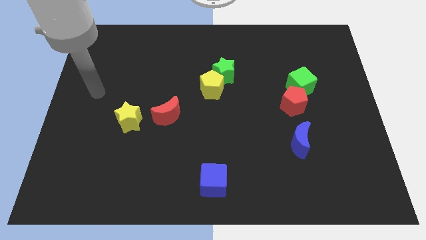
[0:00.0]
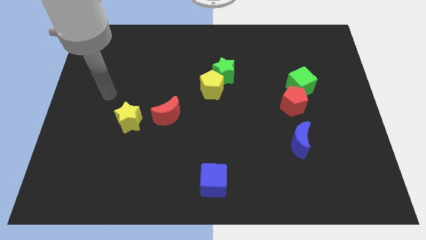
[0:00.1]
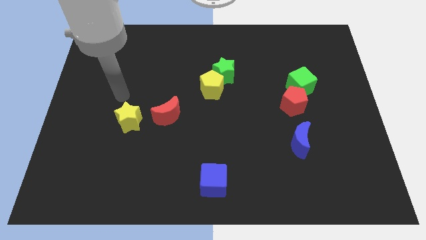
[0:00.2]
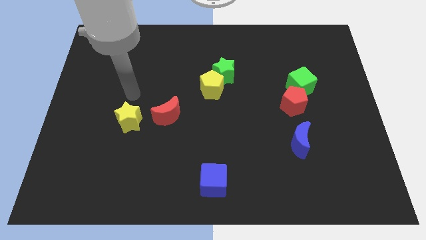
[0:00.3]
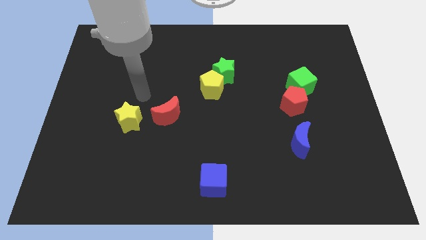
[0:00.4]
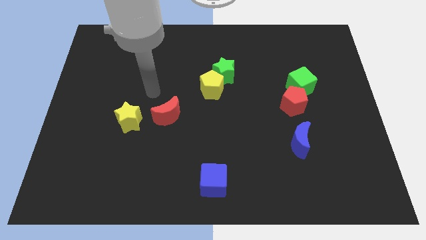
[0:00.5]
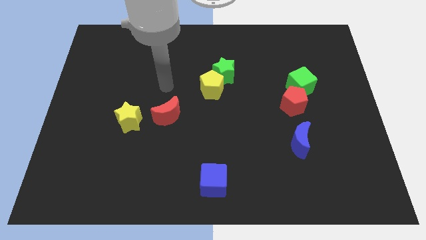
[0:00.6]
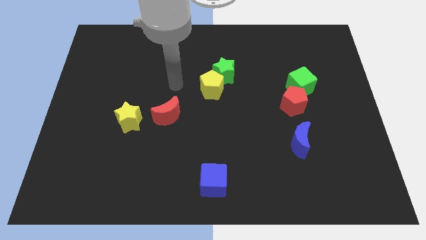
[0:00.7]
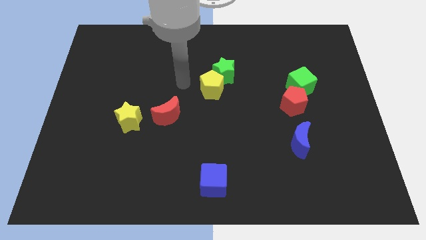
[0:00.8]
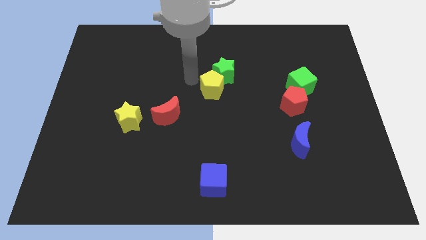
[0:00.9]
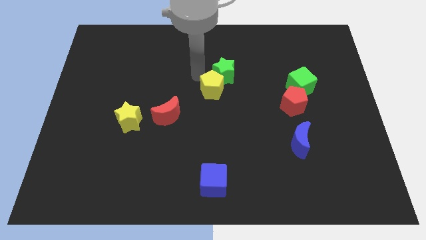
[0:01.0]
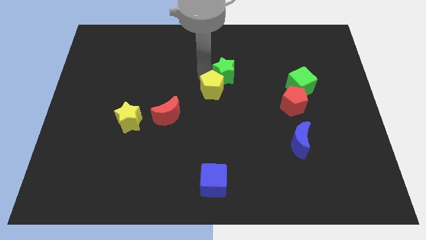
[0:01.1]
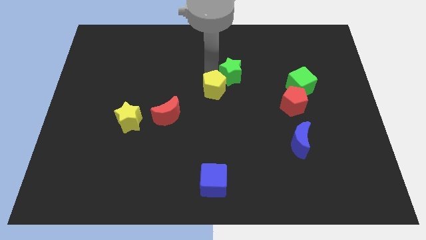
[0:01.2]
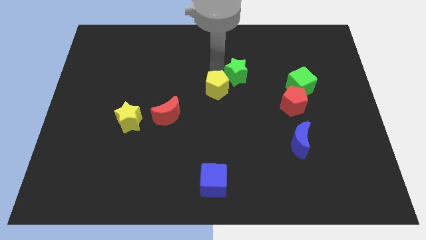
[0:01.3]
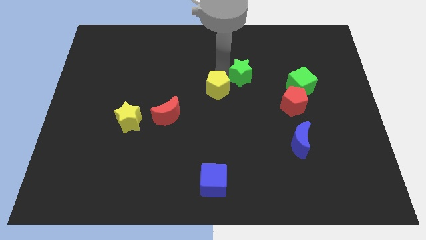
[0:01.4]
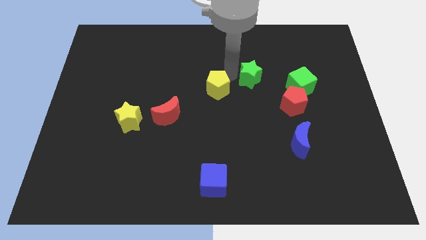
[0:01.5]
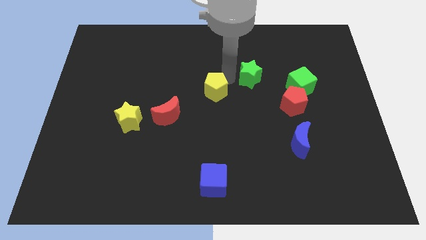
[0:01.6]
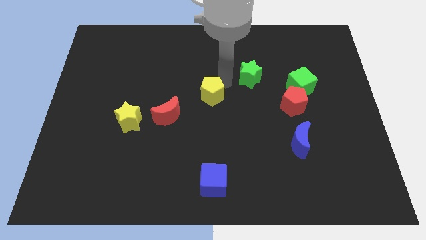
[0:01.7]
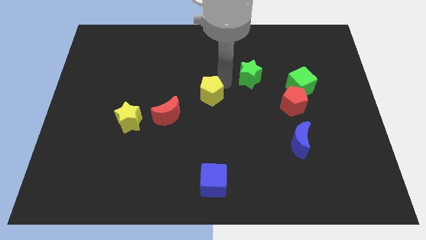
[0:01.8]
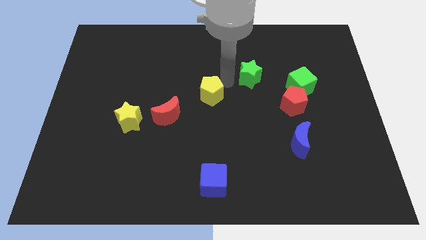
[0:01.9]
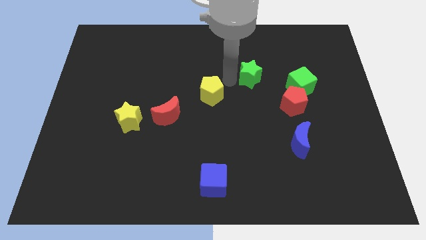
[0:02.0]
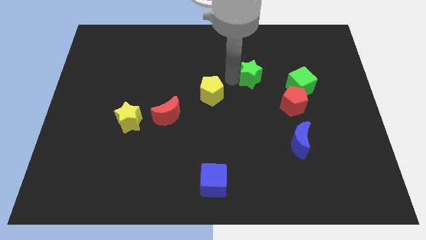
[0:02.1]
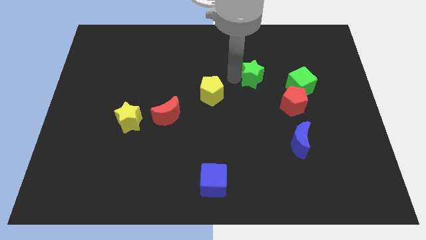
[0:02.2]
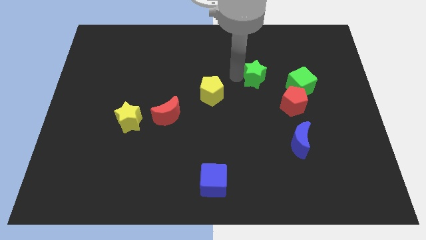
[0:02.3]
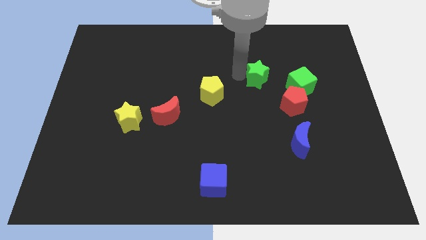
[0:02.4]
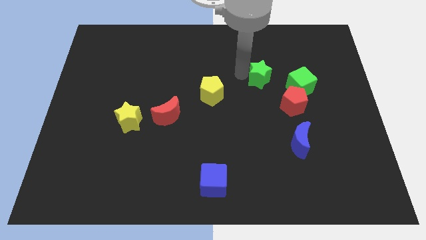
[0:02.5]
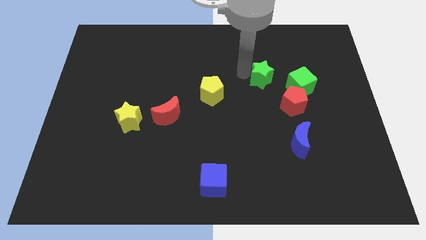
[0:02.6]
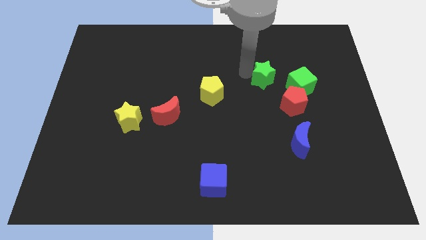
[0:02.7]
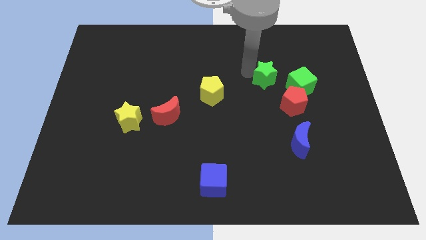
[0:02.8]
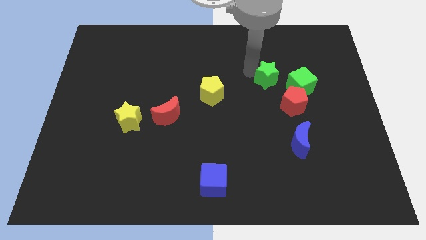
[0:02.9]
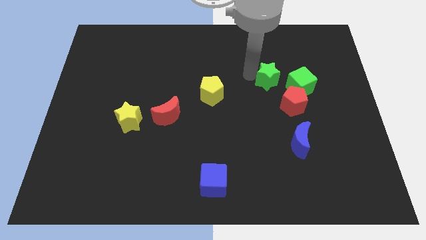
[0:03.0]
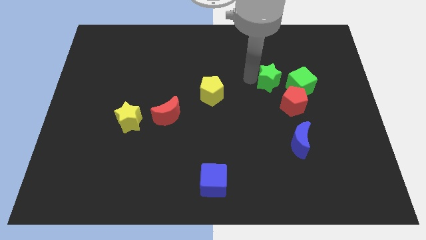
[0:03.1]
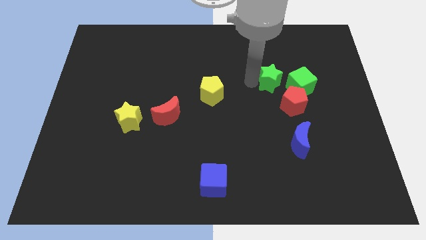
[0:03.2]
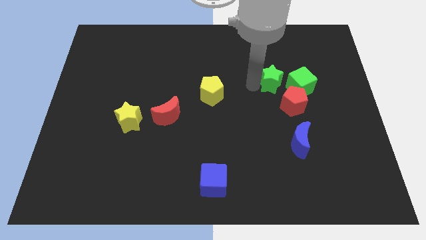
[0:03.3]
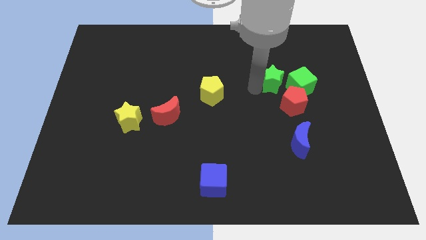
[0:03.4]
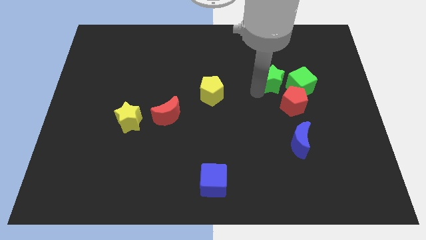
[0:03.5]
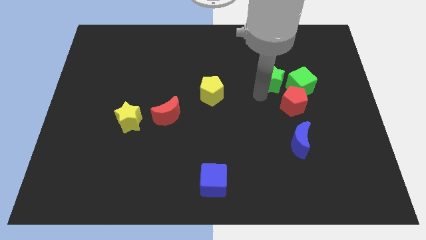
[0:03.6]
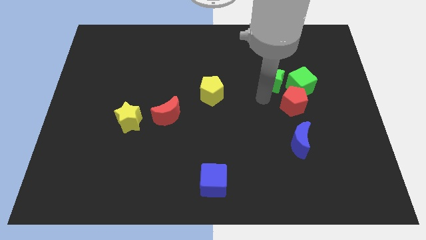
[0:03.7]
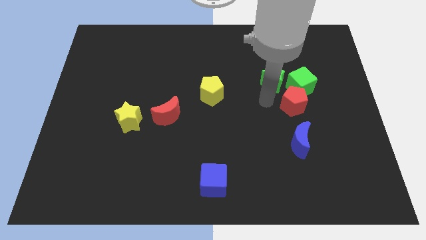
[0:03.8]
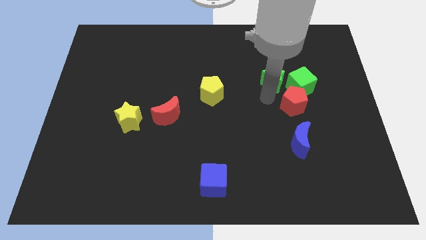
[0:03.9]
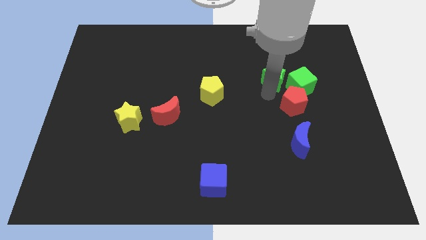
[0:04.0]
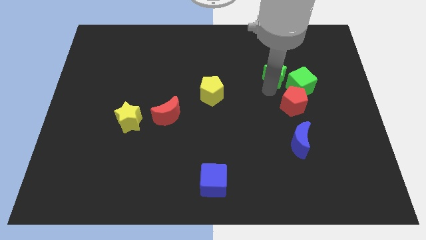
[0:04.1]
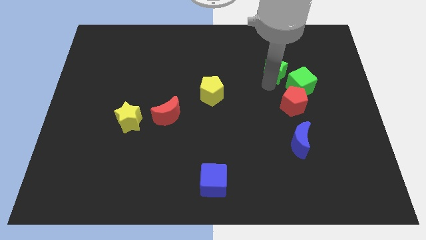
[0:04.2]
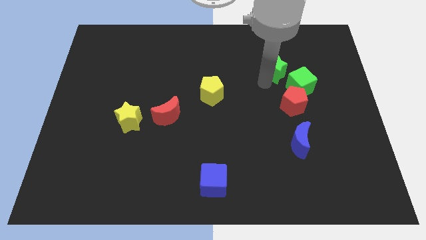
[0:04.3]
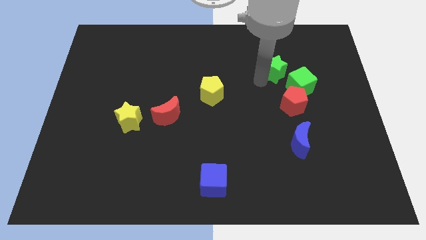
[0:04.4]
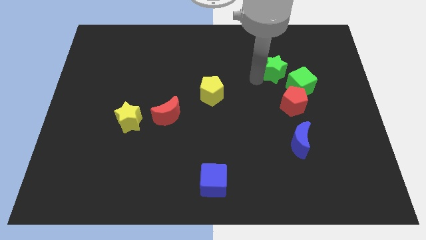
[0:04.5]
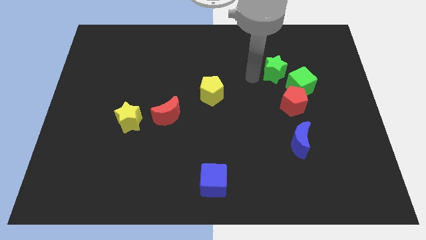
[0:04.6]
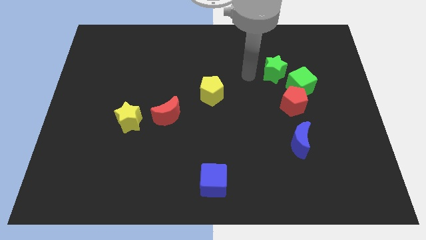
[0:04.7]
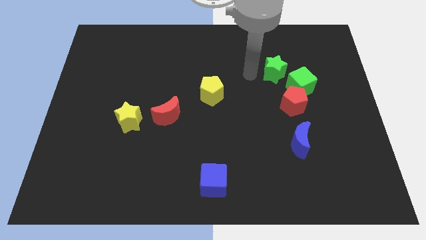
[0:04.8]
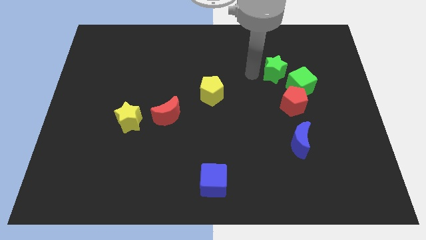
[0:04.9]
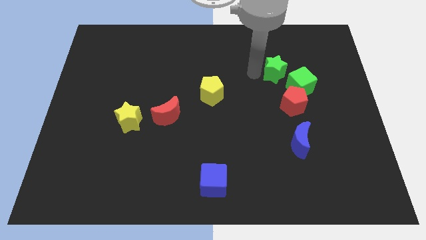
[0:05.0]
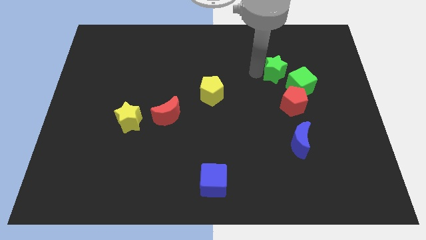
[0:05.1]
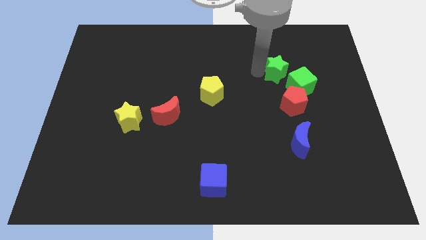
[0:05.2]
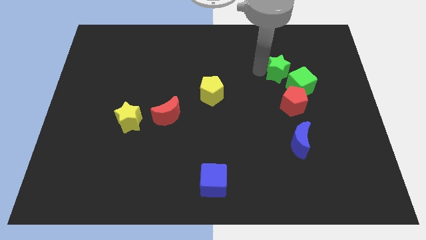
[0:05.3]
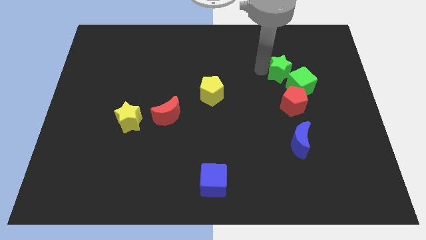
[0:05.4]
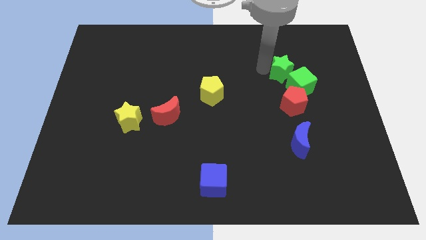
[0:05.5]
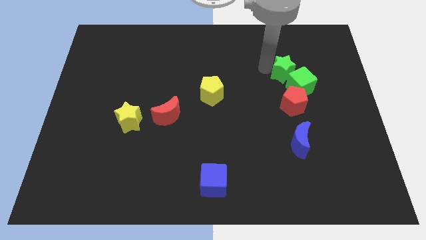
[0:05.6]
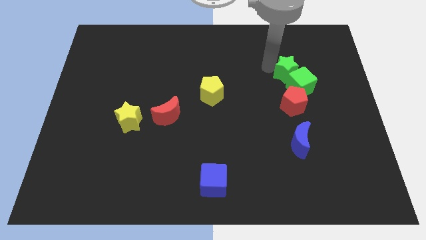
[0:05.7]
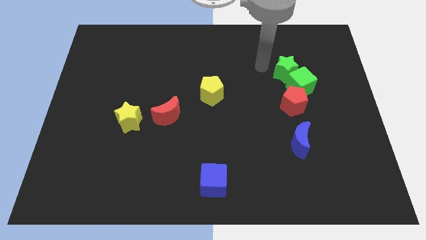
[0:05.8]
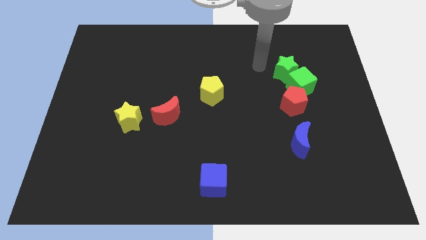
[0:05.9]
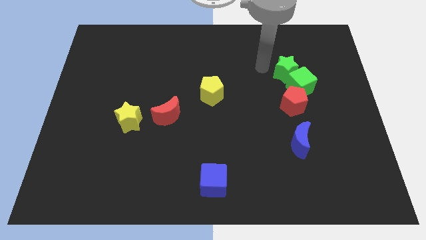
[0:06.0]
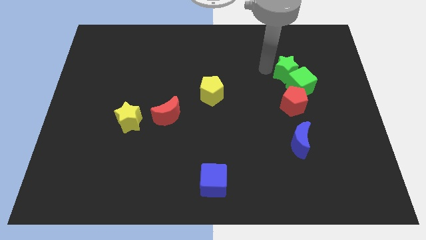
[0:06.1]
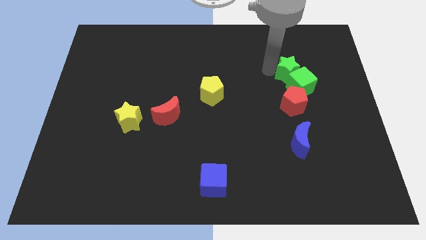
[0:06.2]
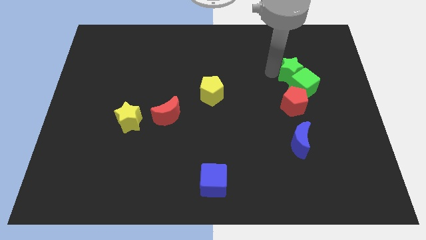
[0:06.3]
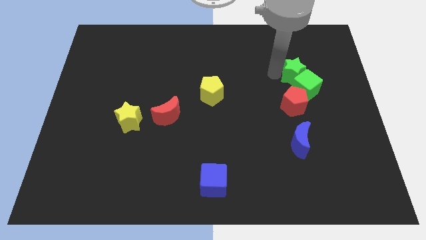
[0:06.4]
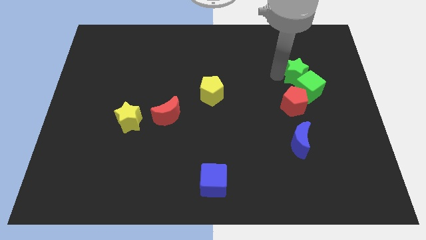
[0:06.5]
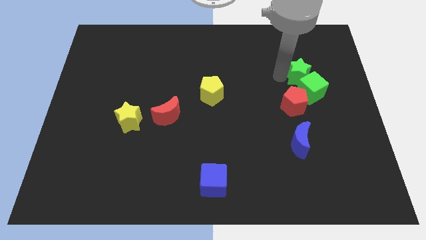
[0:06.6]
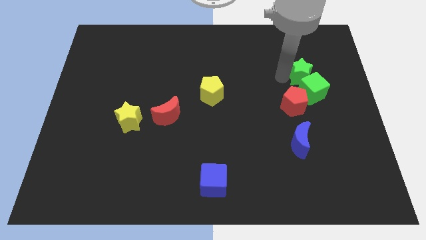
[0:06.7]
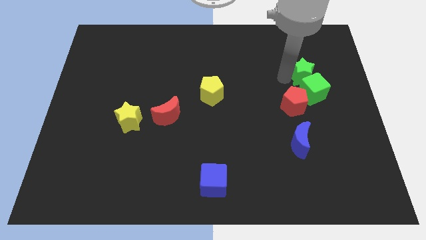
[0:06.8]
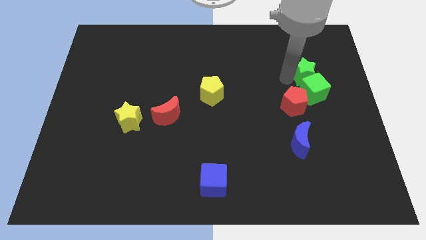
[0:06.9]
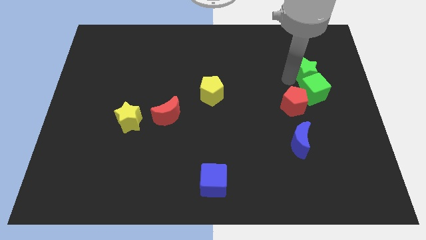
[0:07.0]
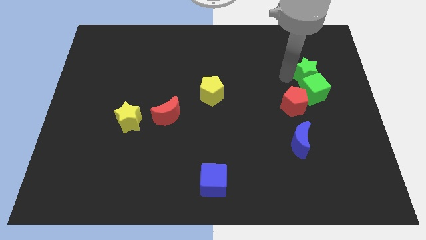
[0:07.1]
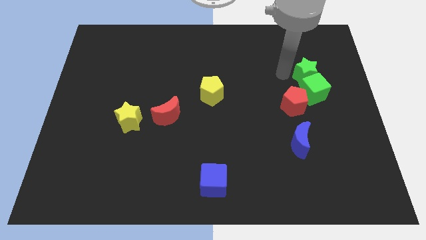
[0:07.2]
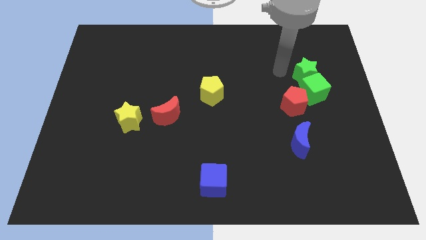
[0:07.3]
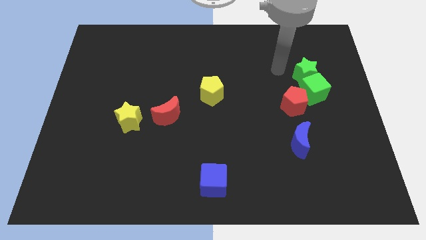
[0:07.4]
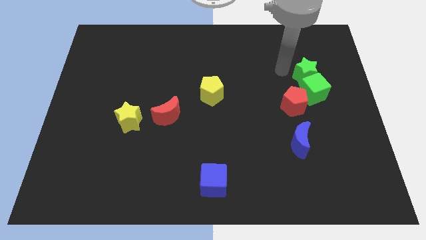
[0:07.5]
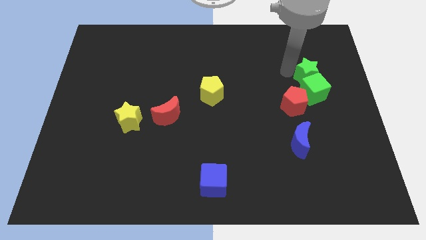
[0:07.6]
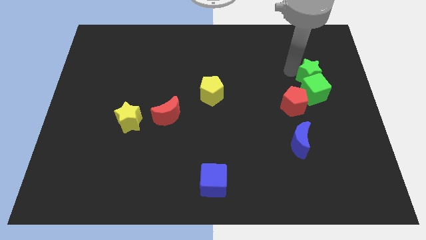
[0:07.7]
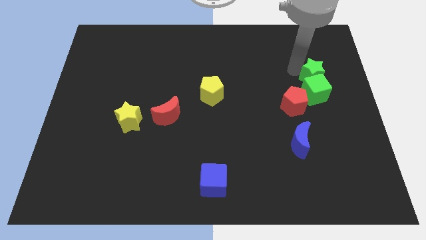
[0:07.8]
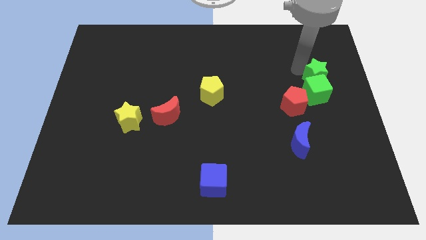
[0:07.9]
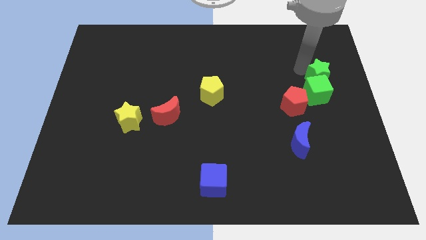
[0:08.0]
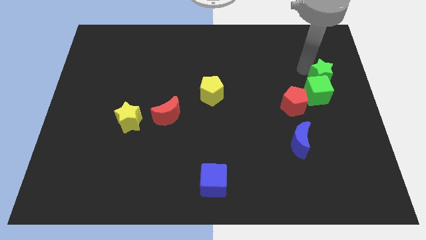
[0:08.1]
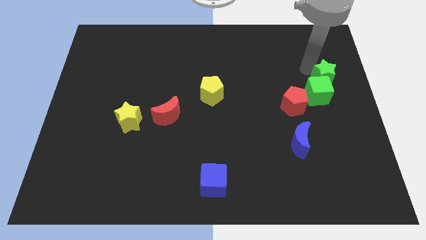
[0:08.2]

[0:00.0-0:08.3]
put the green star to the right side
